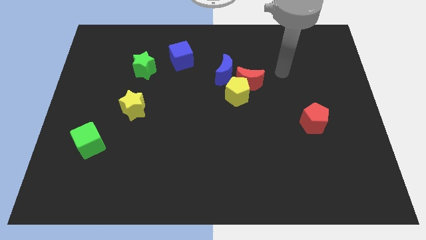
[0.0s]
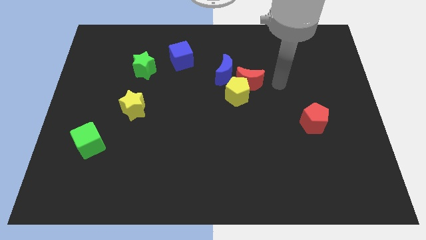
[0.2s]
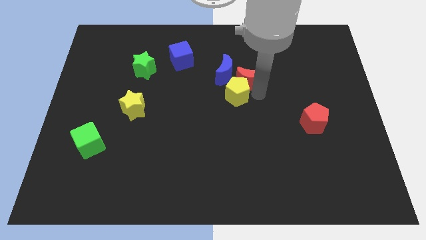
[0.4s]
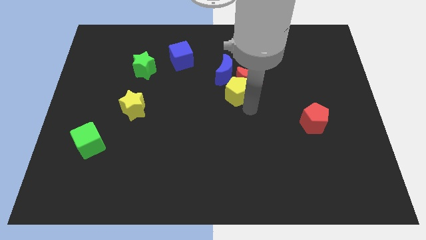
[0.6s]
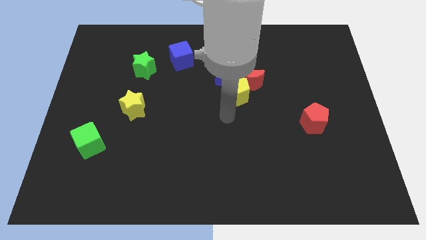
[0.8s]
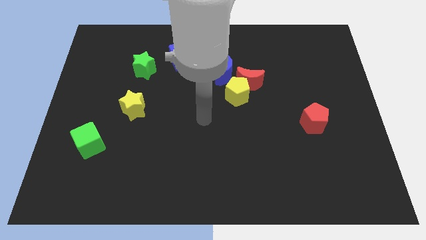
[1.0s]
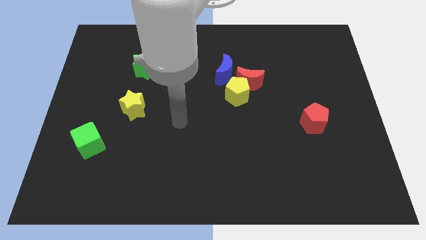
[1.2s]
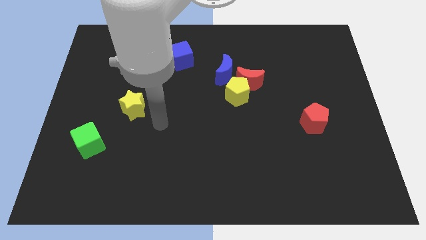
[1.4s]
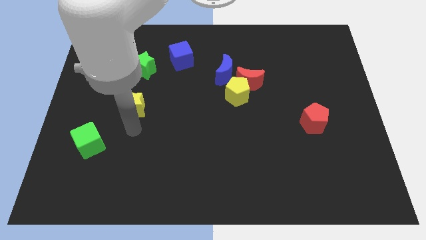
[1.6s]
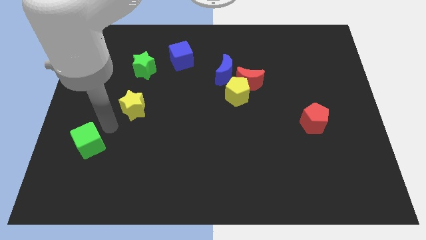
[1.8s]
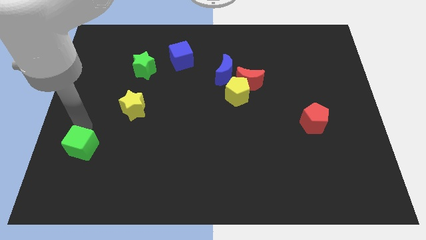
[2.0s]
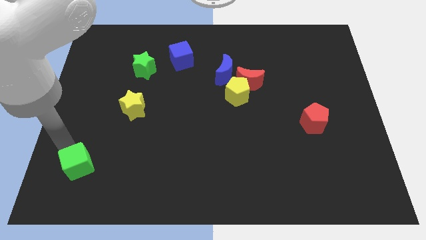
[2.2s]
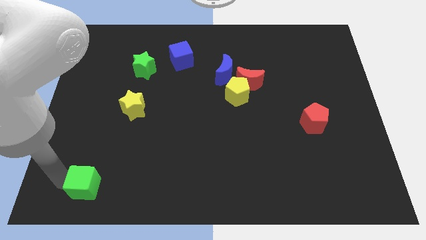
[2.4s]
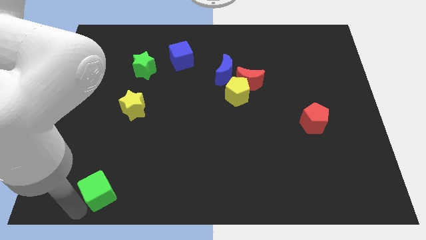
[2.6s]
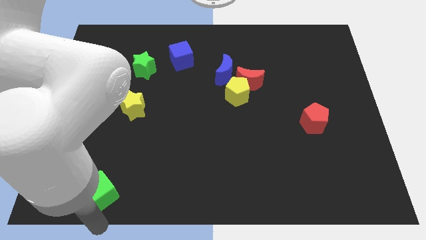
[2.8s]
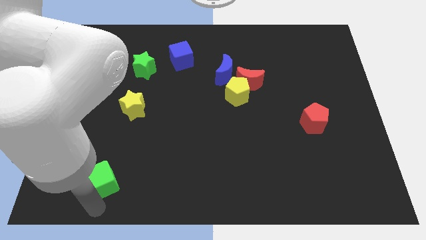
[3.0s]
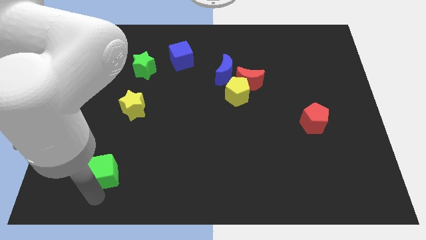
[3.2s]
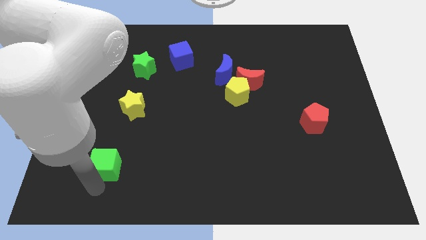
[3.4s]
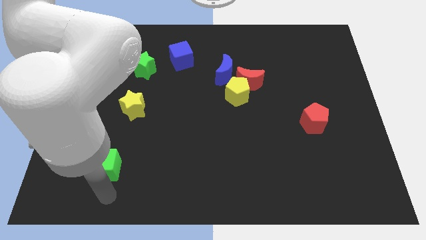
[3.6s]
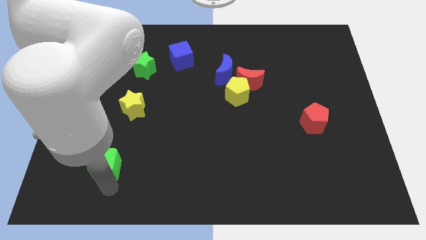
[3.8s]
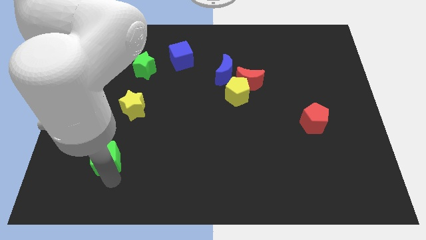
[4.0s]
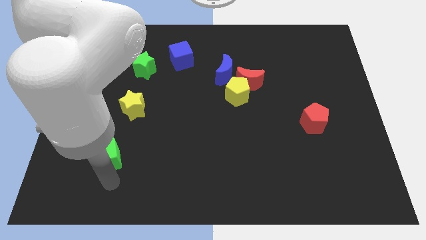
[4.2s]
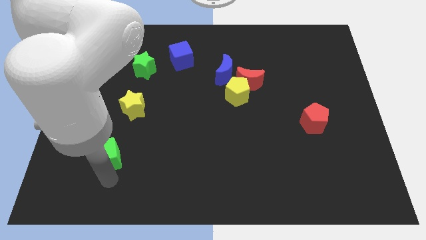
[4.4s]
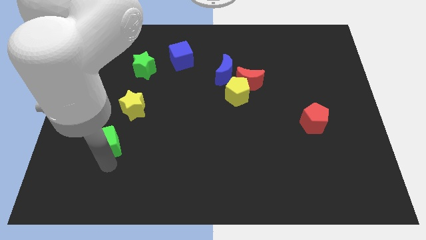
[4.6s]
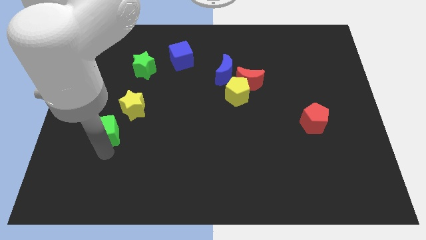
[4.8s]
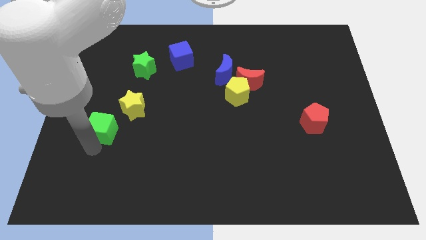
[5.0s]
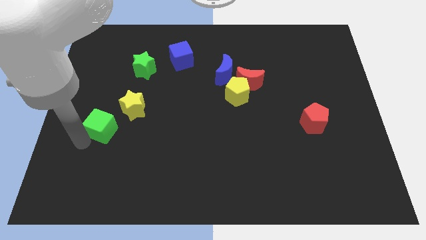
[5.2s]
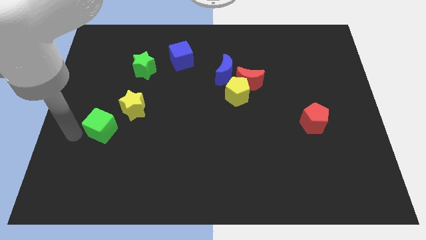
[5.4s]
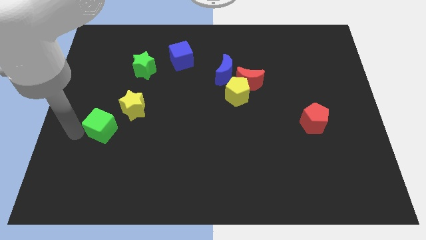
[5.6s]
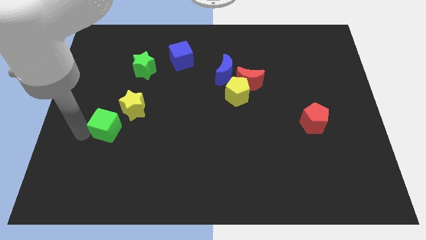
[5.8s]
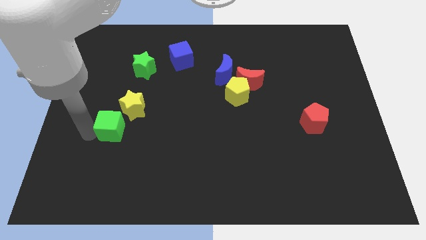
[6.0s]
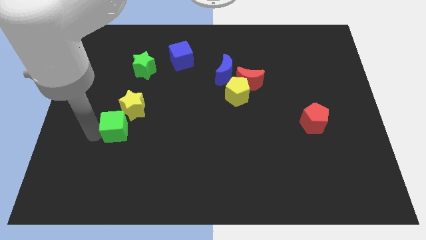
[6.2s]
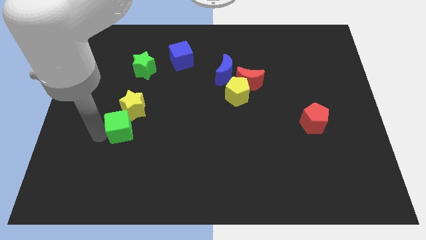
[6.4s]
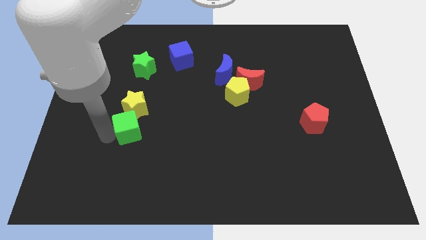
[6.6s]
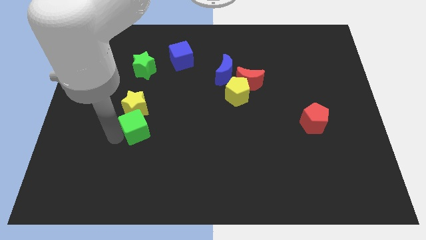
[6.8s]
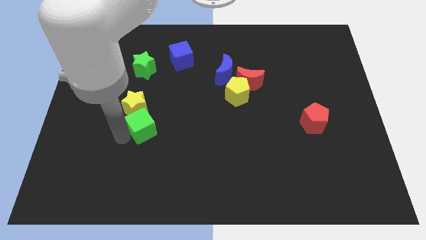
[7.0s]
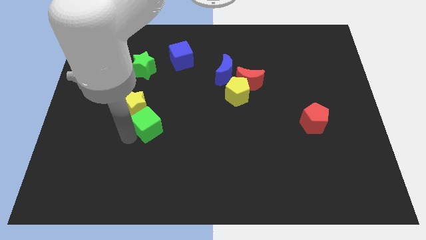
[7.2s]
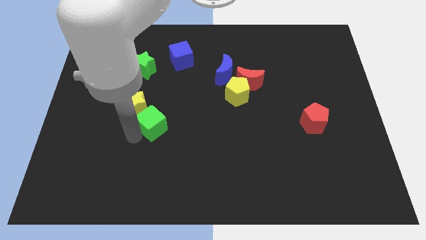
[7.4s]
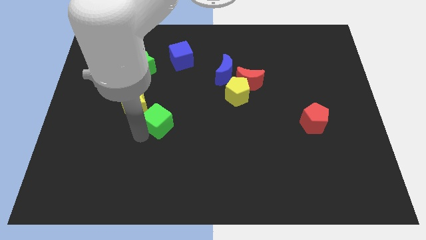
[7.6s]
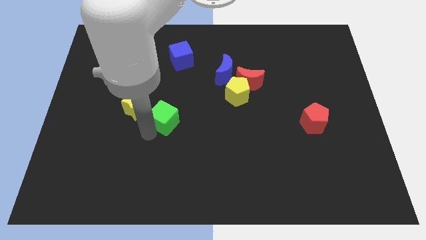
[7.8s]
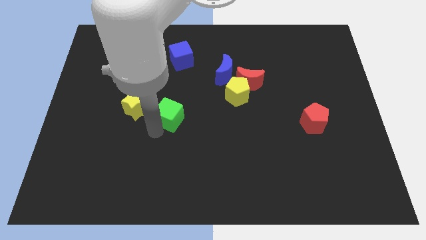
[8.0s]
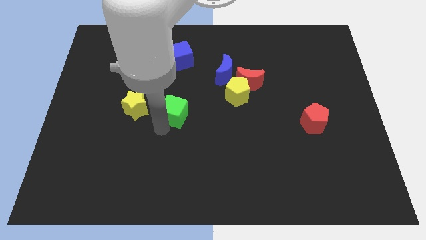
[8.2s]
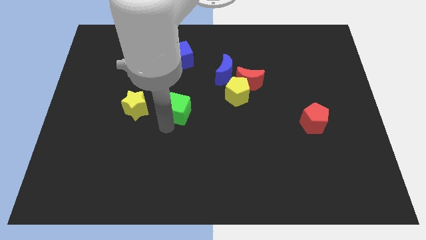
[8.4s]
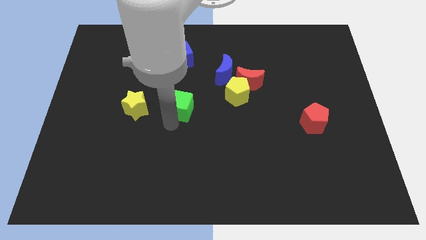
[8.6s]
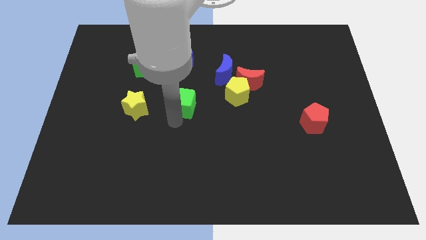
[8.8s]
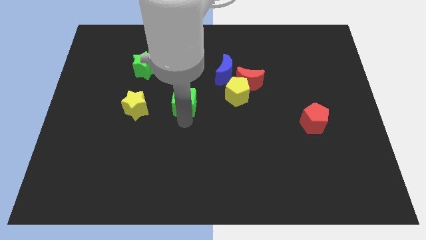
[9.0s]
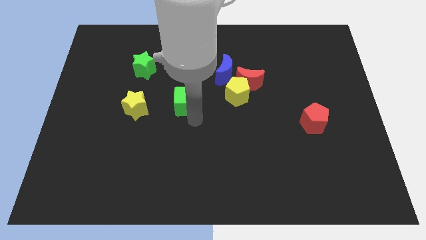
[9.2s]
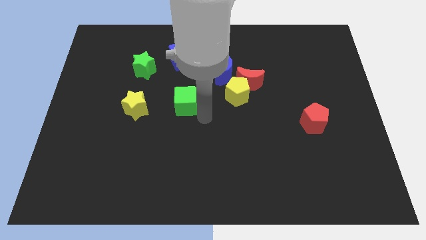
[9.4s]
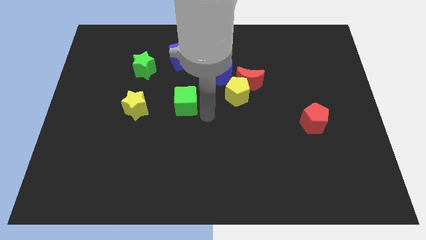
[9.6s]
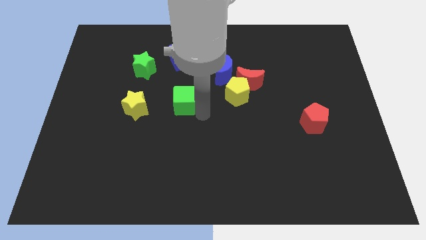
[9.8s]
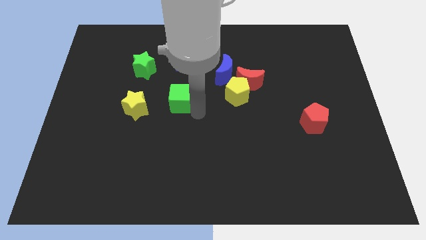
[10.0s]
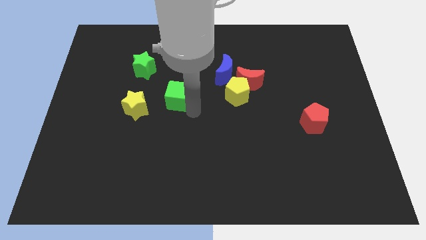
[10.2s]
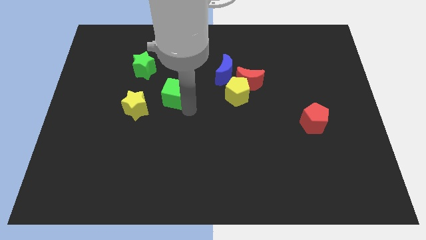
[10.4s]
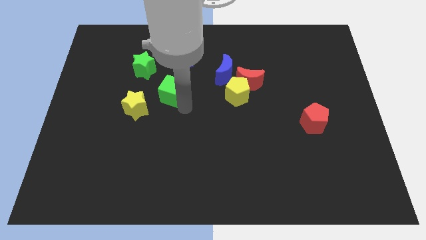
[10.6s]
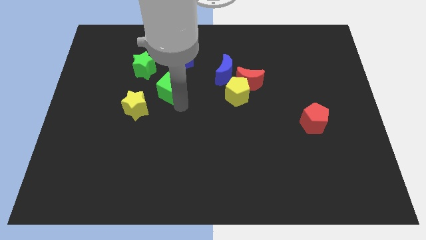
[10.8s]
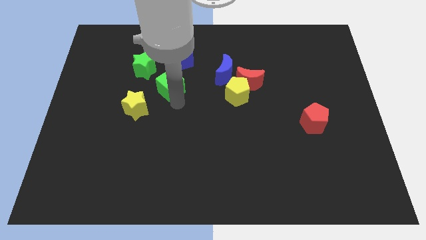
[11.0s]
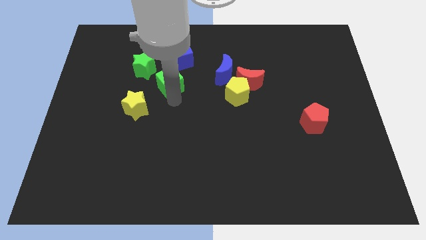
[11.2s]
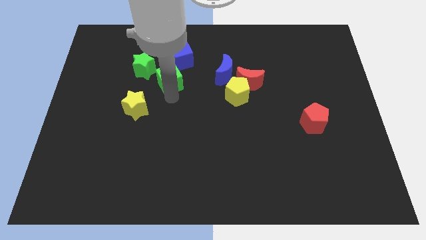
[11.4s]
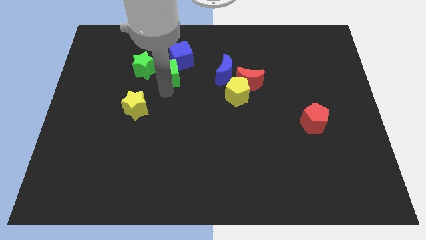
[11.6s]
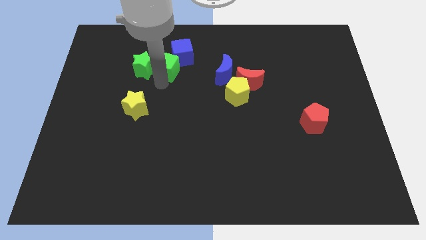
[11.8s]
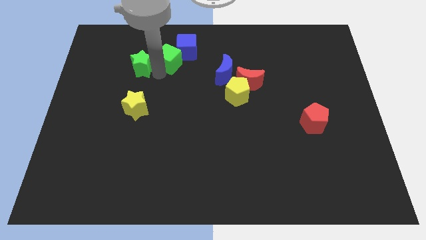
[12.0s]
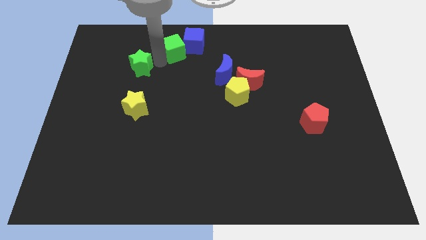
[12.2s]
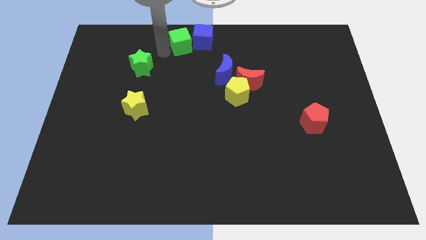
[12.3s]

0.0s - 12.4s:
slide the green cube to the towards your base
